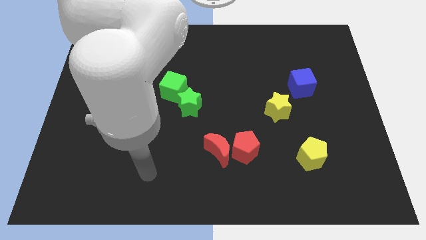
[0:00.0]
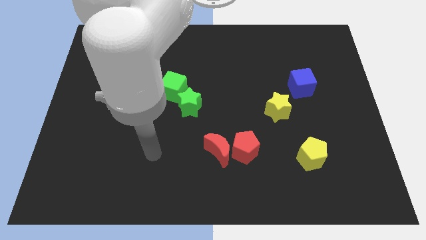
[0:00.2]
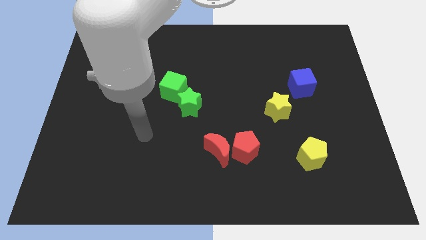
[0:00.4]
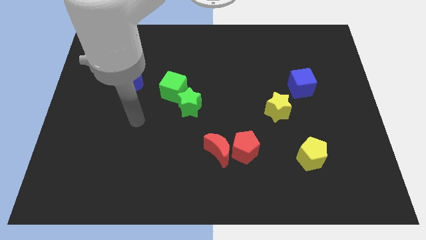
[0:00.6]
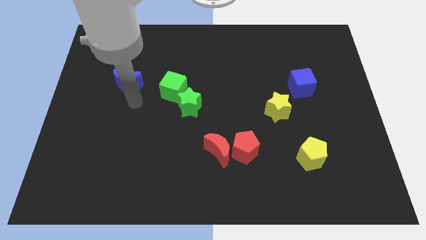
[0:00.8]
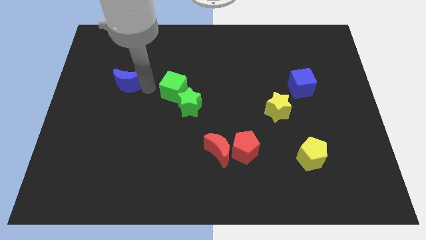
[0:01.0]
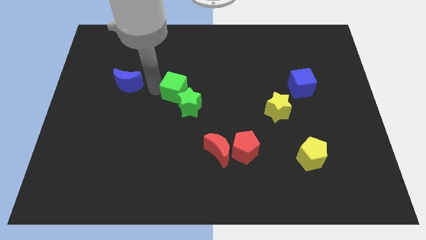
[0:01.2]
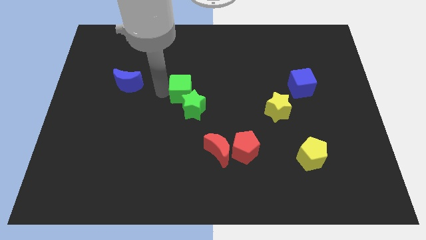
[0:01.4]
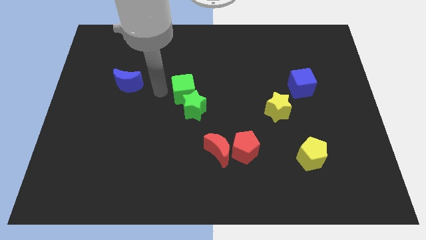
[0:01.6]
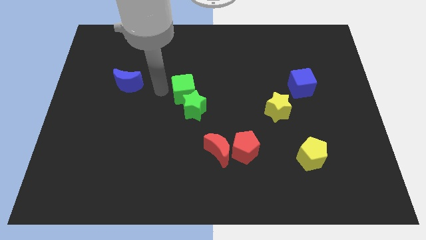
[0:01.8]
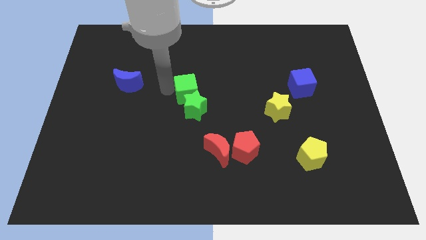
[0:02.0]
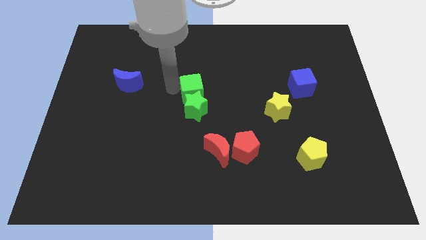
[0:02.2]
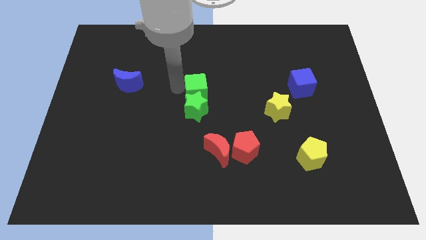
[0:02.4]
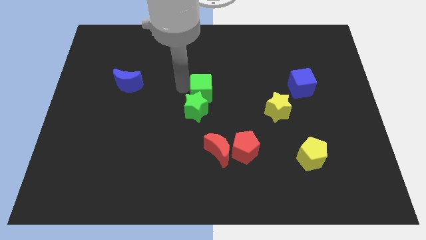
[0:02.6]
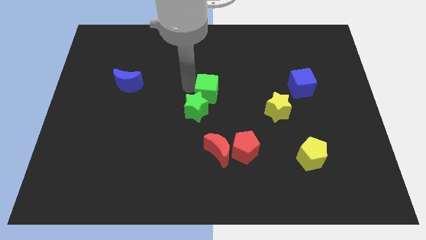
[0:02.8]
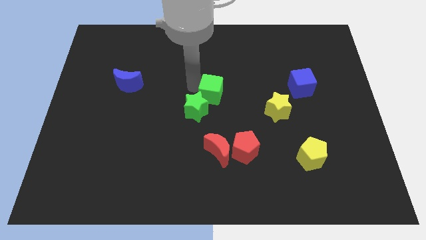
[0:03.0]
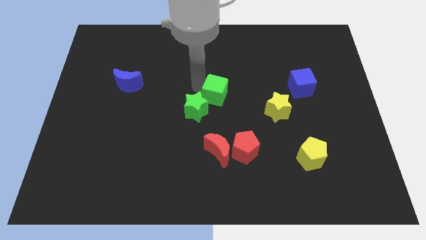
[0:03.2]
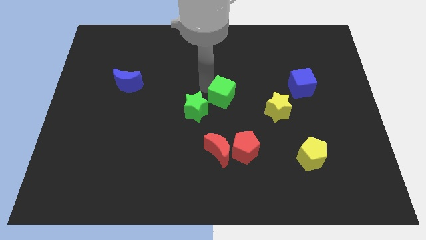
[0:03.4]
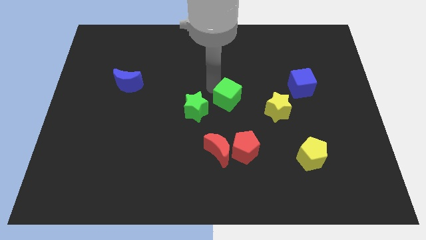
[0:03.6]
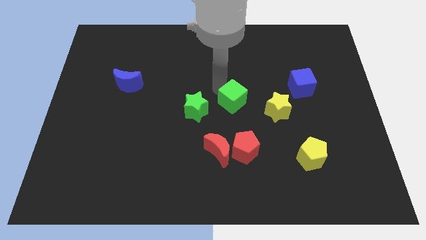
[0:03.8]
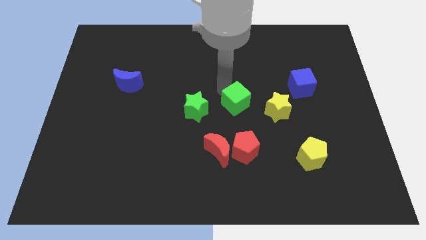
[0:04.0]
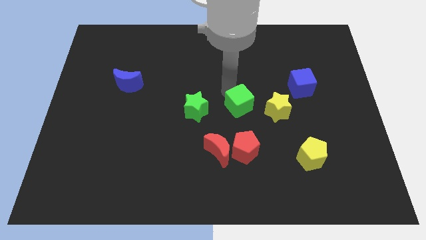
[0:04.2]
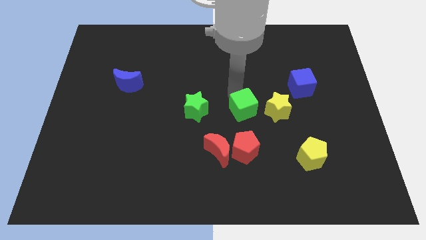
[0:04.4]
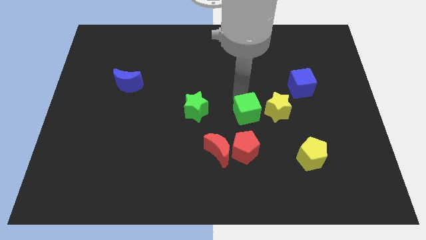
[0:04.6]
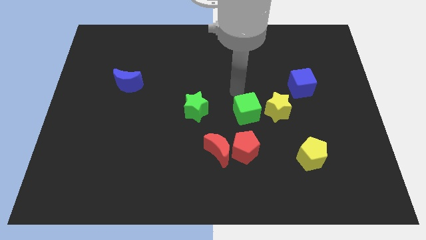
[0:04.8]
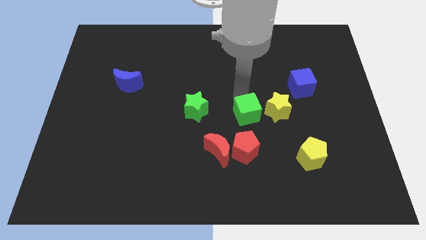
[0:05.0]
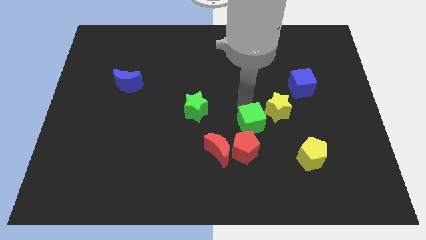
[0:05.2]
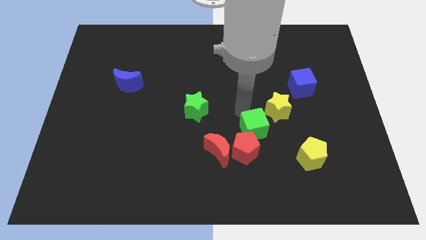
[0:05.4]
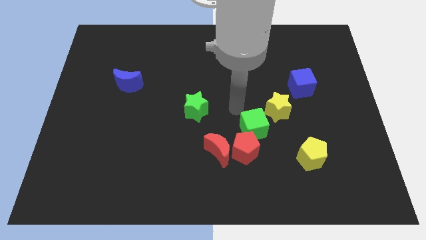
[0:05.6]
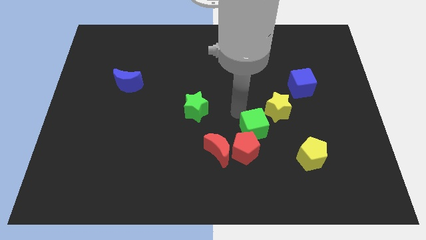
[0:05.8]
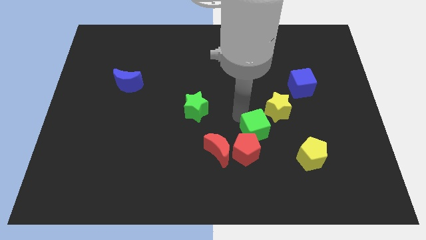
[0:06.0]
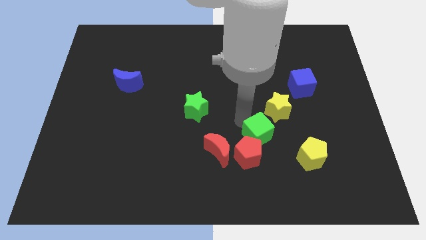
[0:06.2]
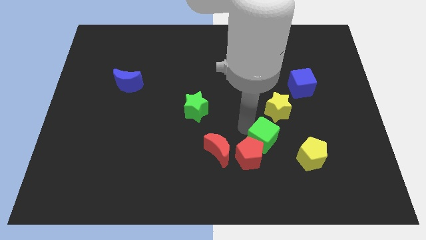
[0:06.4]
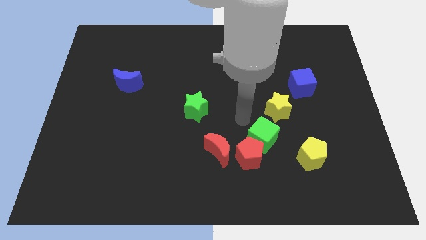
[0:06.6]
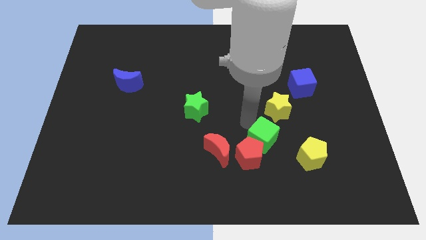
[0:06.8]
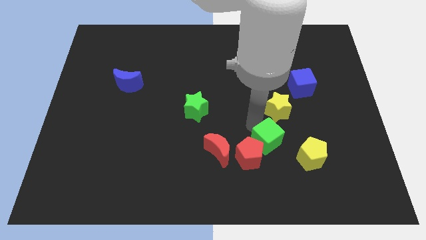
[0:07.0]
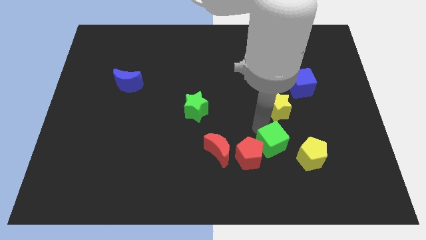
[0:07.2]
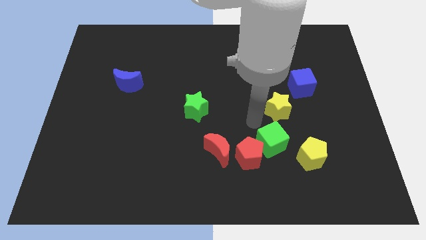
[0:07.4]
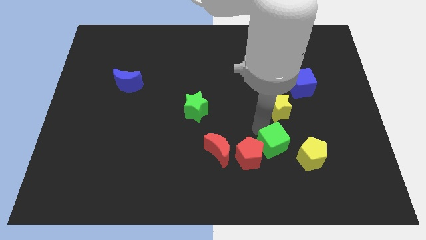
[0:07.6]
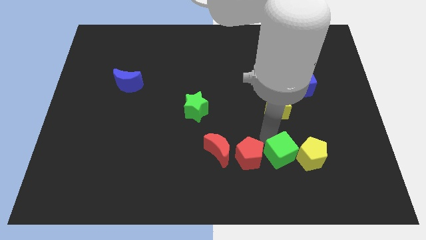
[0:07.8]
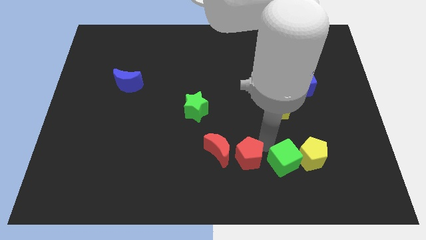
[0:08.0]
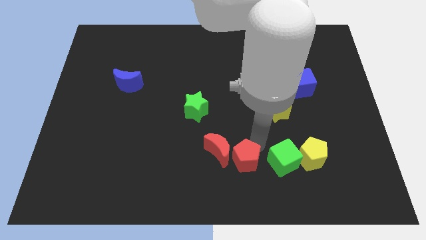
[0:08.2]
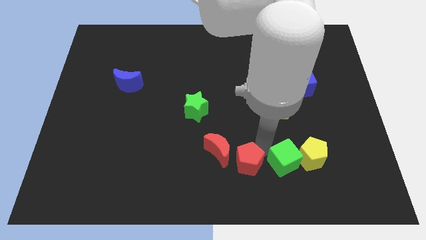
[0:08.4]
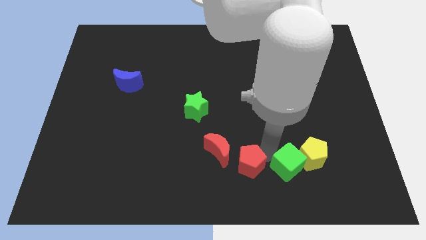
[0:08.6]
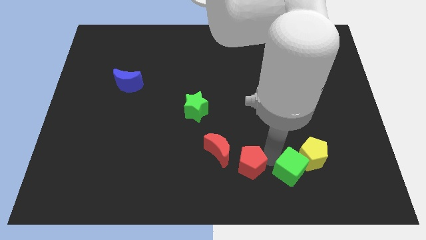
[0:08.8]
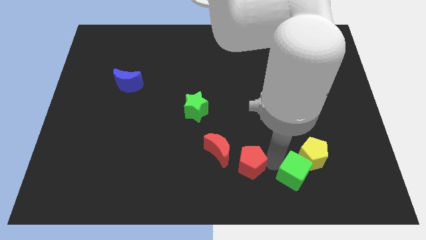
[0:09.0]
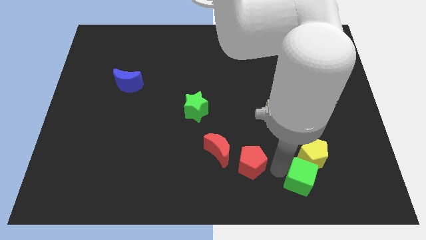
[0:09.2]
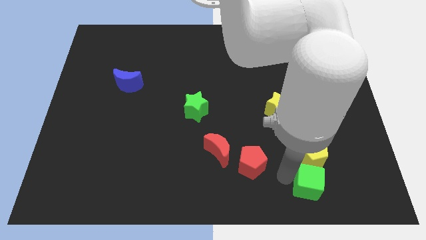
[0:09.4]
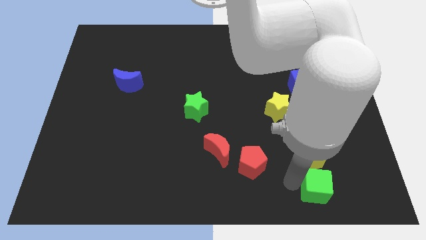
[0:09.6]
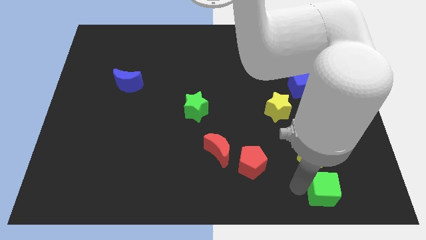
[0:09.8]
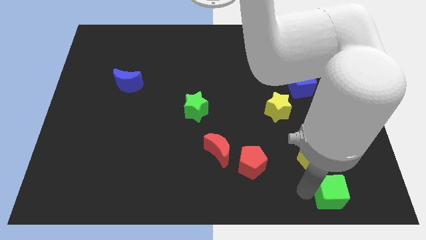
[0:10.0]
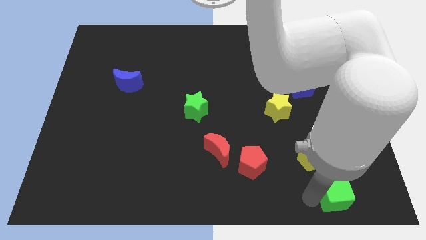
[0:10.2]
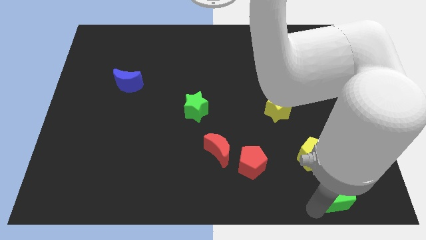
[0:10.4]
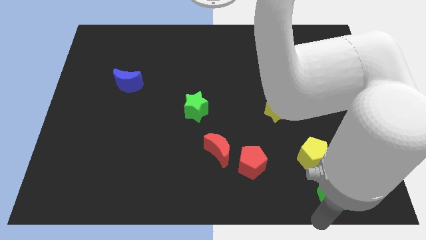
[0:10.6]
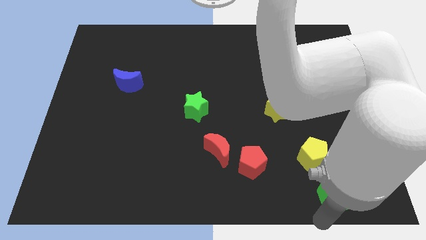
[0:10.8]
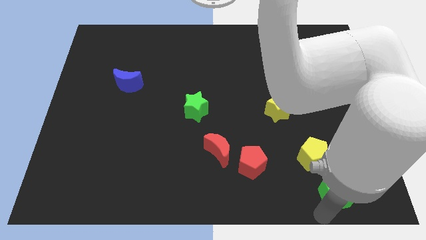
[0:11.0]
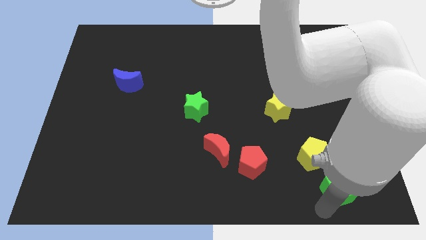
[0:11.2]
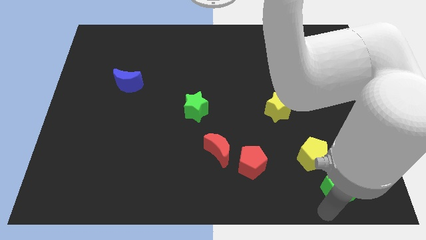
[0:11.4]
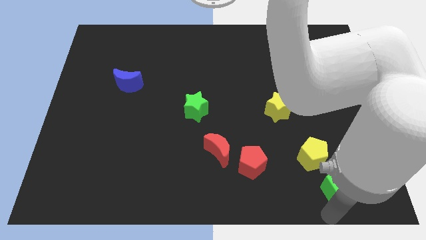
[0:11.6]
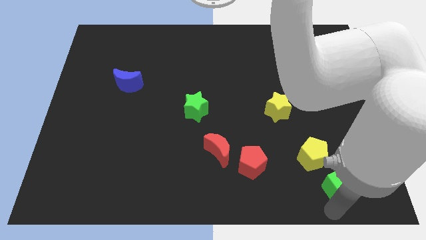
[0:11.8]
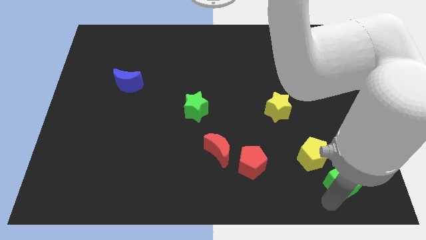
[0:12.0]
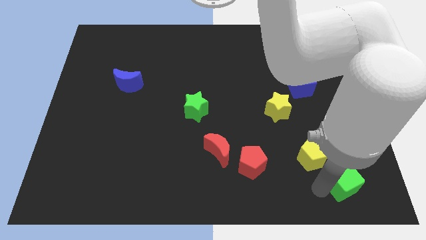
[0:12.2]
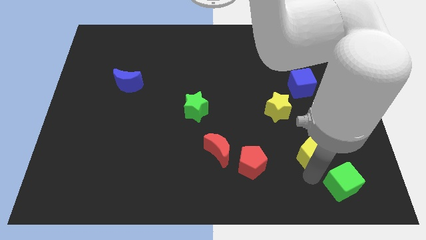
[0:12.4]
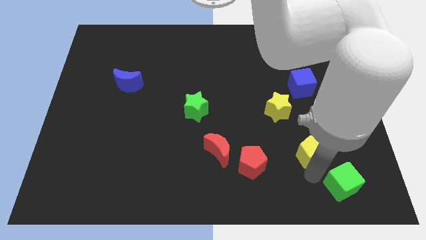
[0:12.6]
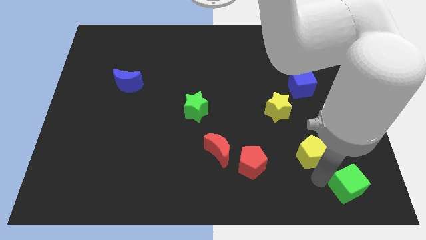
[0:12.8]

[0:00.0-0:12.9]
slide the green cube to the bottom right
